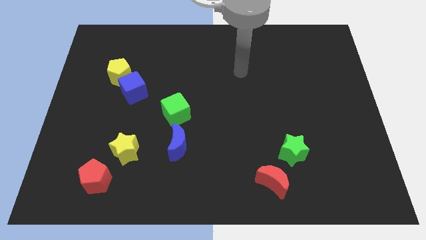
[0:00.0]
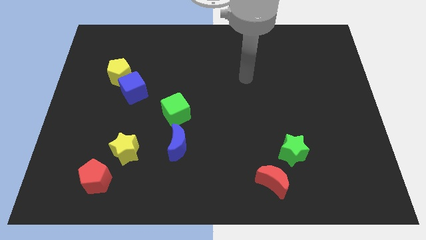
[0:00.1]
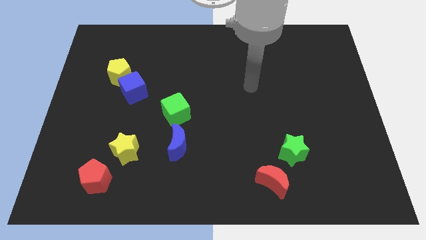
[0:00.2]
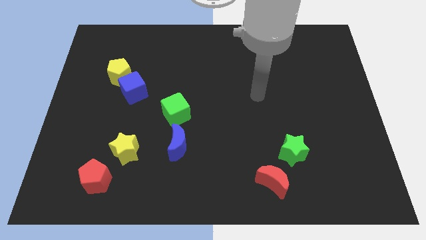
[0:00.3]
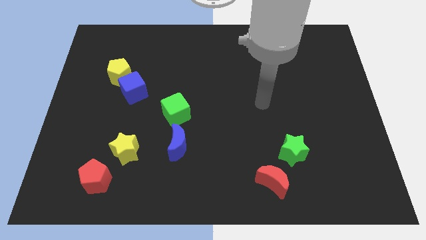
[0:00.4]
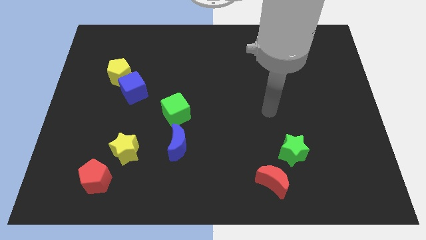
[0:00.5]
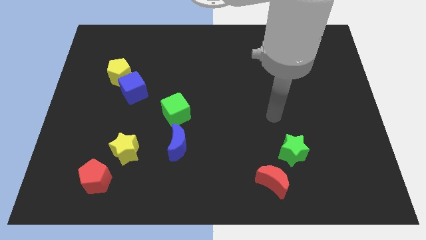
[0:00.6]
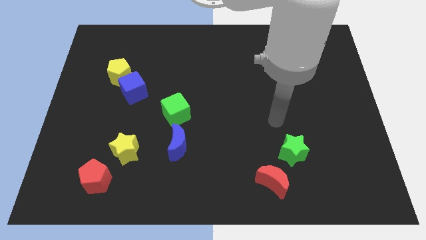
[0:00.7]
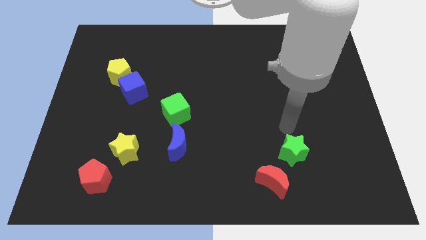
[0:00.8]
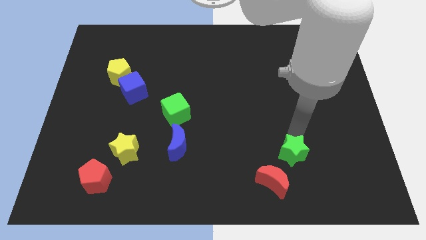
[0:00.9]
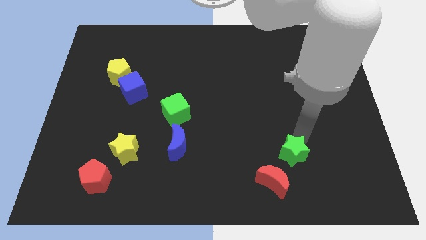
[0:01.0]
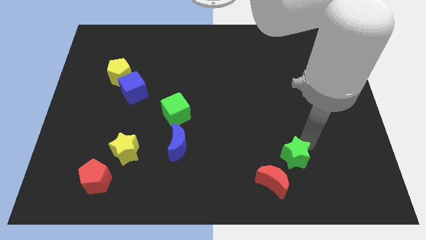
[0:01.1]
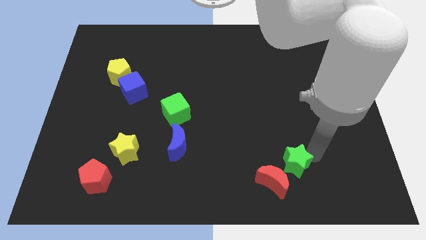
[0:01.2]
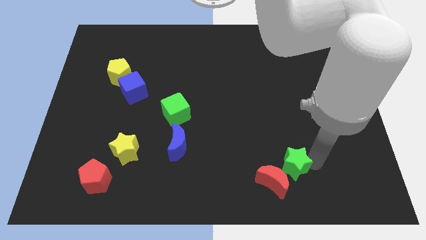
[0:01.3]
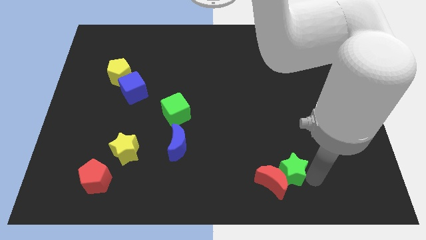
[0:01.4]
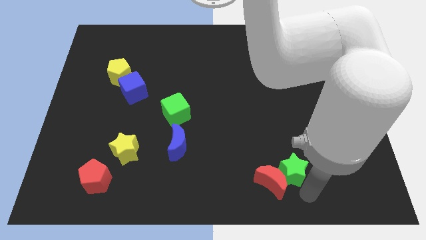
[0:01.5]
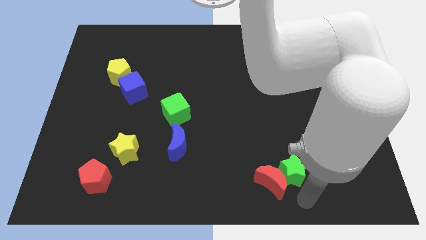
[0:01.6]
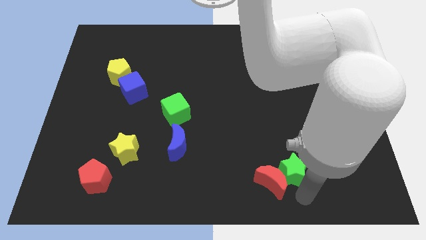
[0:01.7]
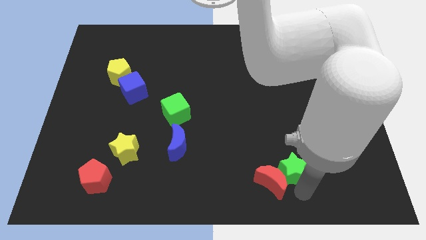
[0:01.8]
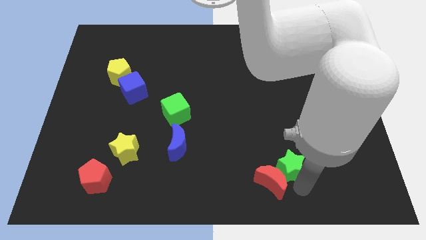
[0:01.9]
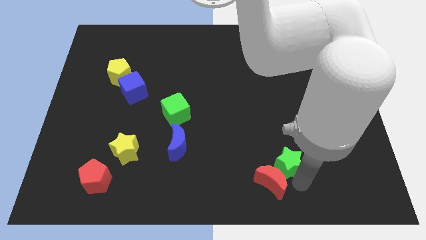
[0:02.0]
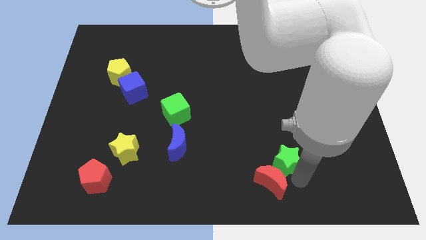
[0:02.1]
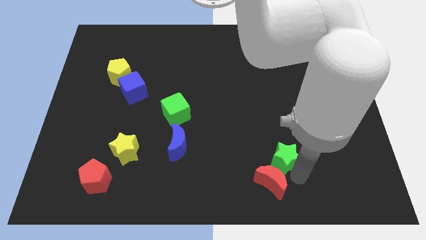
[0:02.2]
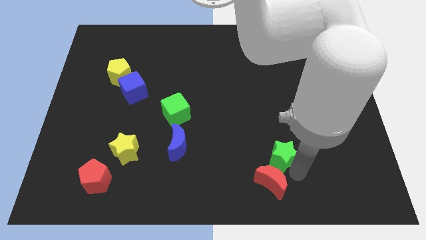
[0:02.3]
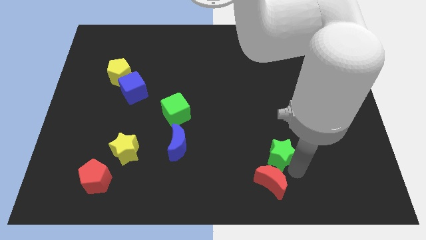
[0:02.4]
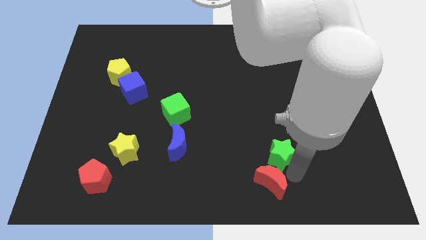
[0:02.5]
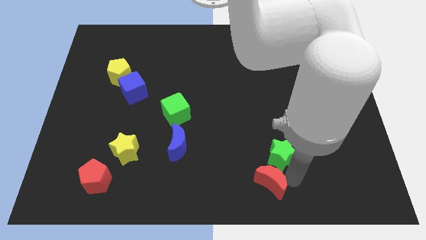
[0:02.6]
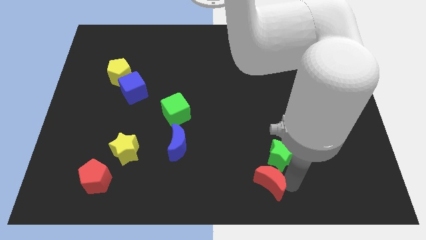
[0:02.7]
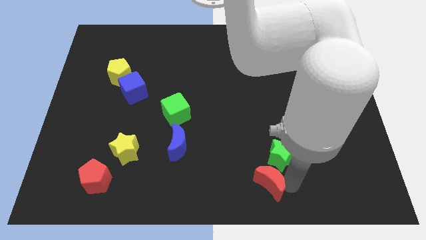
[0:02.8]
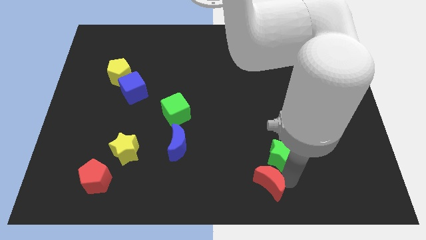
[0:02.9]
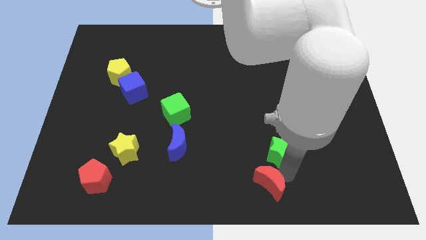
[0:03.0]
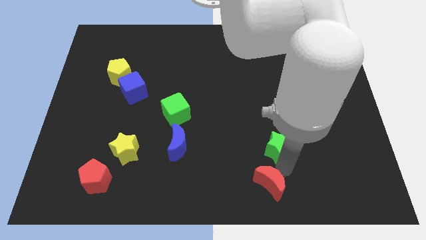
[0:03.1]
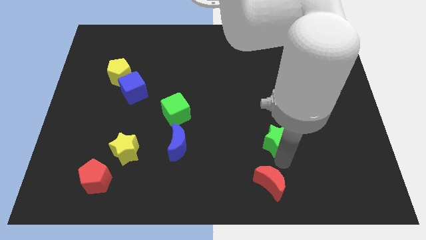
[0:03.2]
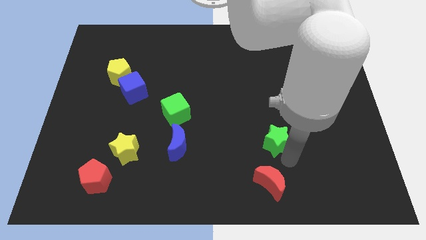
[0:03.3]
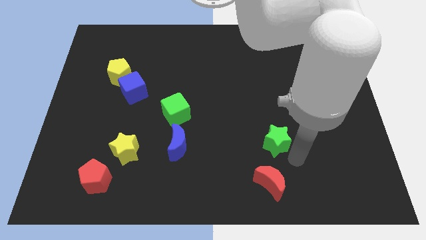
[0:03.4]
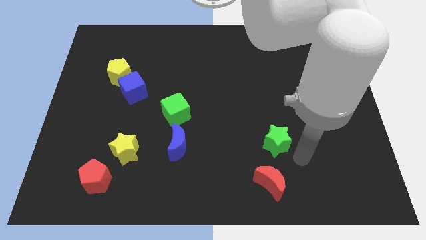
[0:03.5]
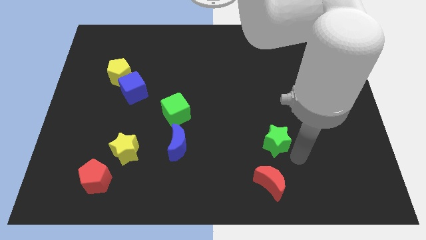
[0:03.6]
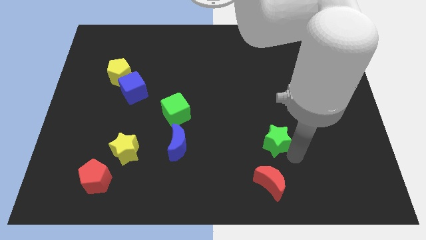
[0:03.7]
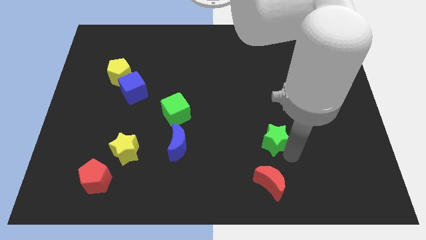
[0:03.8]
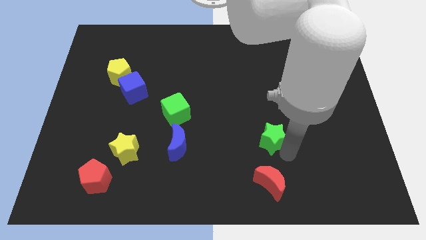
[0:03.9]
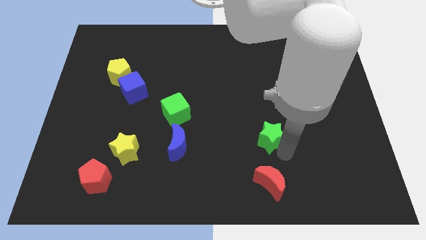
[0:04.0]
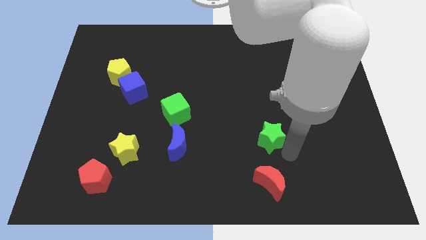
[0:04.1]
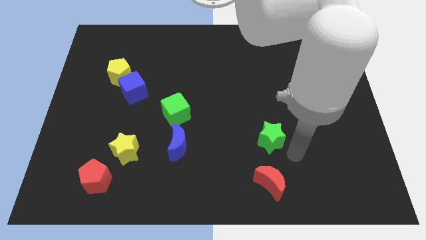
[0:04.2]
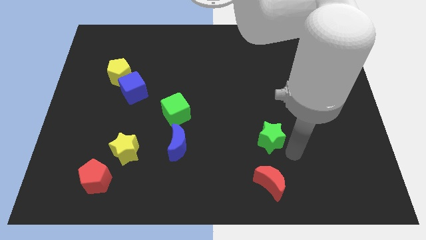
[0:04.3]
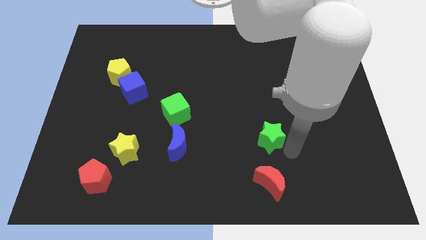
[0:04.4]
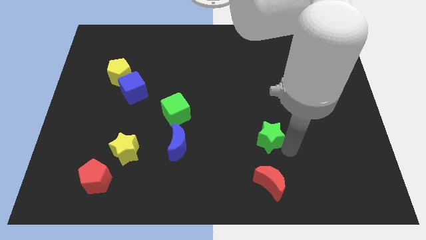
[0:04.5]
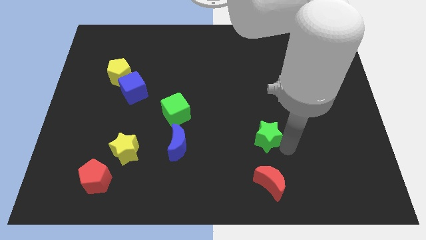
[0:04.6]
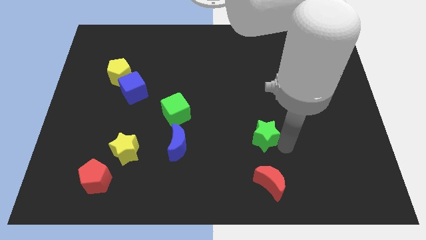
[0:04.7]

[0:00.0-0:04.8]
slide the green star a bit up and left

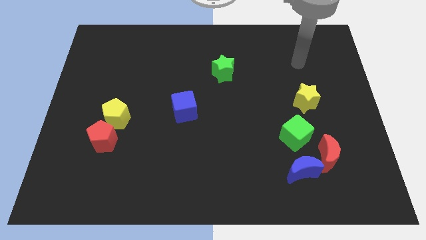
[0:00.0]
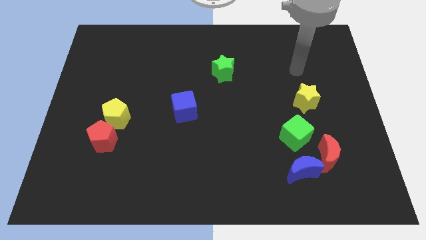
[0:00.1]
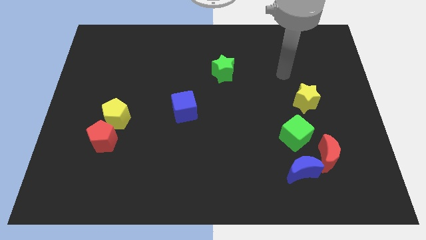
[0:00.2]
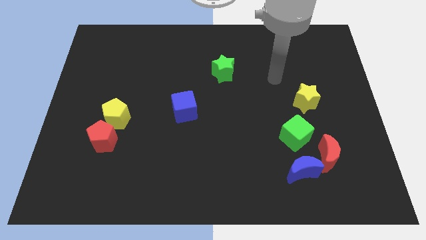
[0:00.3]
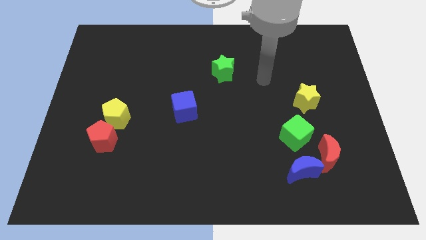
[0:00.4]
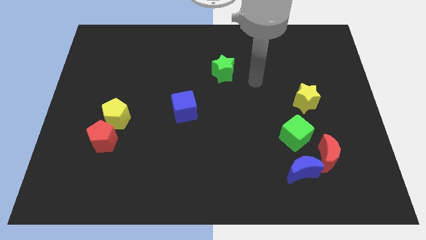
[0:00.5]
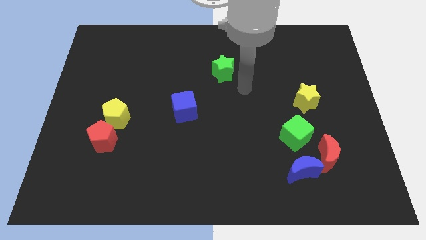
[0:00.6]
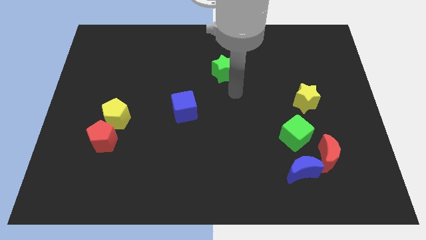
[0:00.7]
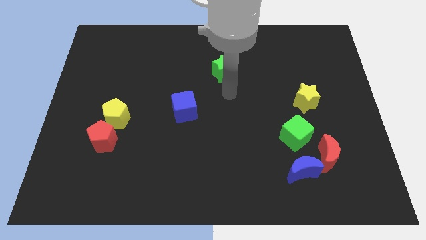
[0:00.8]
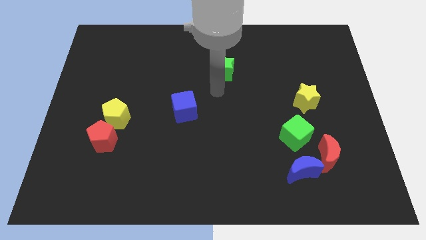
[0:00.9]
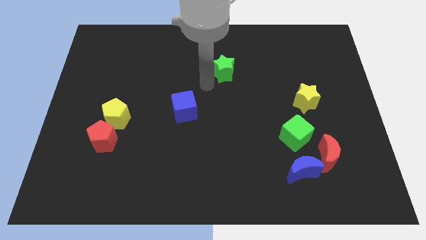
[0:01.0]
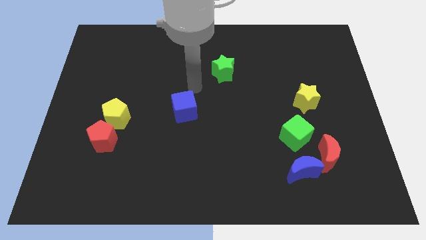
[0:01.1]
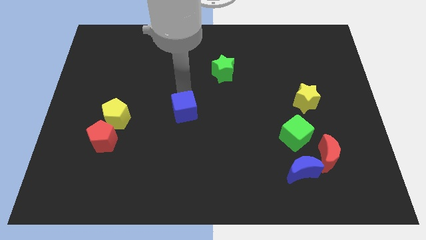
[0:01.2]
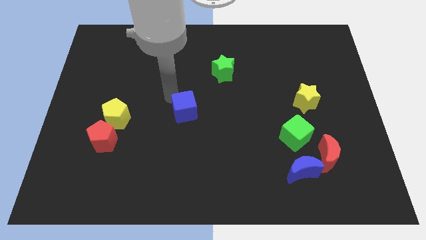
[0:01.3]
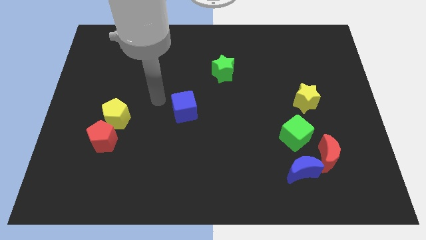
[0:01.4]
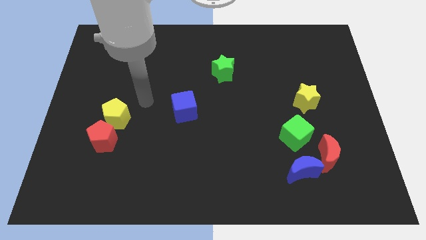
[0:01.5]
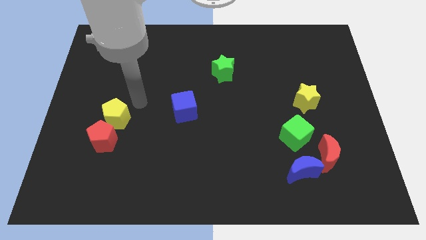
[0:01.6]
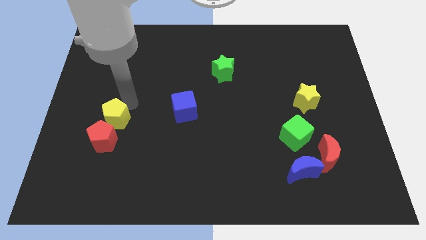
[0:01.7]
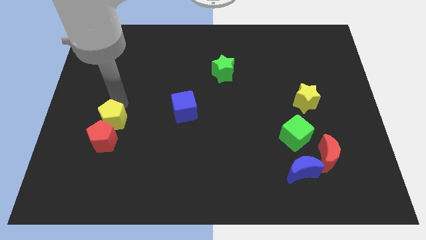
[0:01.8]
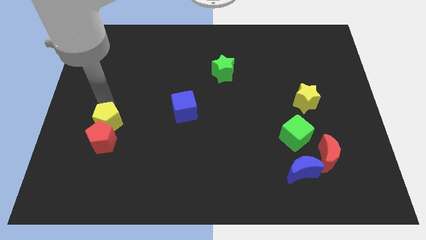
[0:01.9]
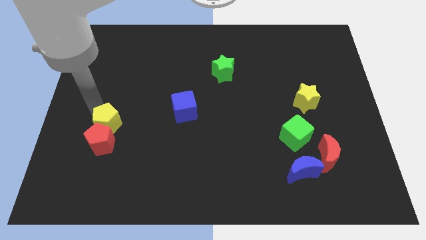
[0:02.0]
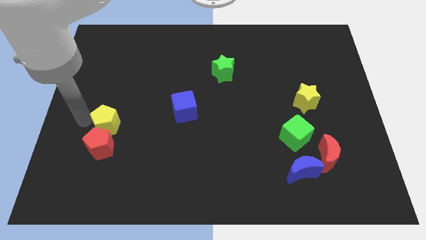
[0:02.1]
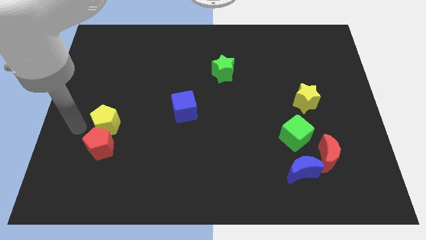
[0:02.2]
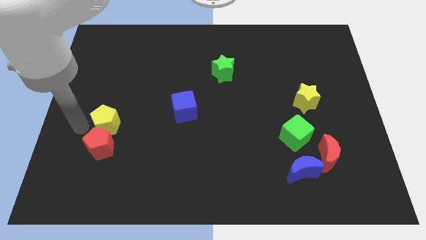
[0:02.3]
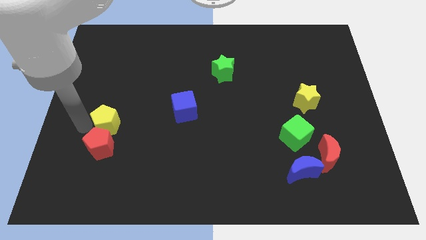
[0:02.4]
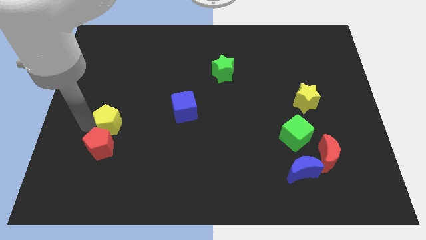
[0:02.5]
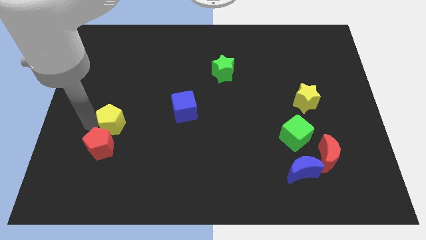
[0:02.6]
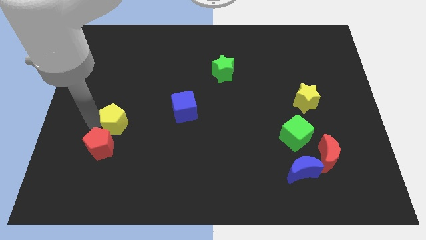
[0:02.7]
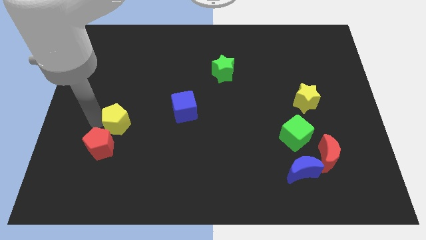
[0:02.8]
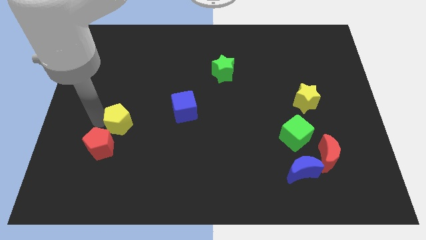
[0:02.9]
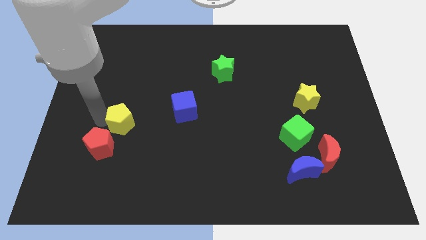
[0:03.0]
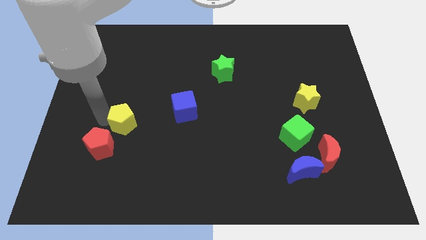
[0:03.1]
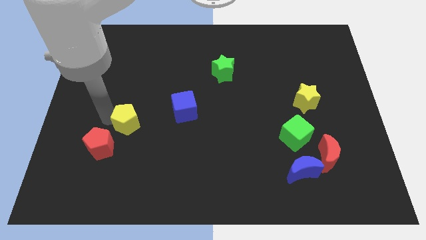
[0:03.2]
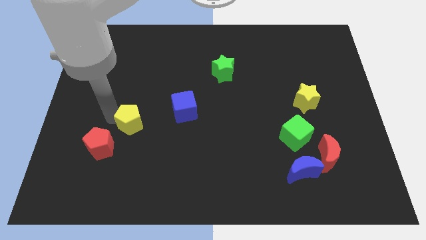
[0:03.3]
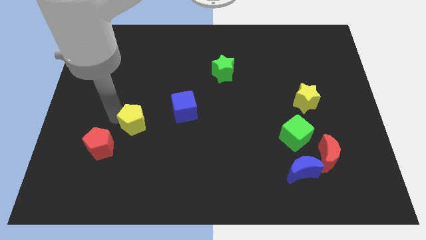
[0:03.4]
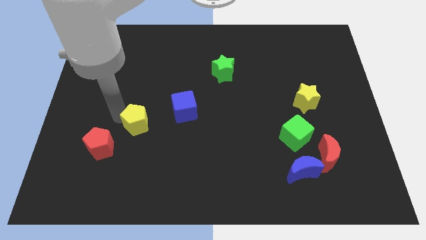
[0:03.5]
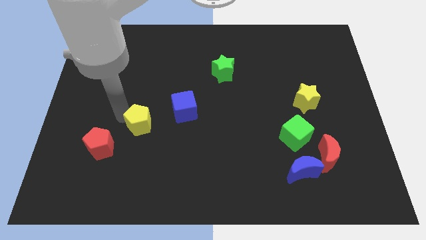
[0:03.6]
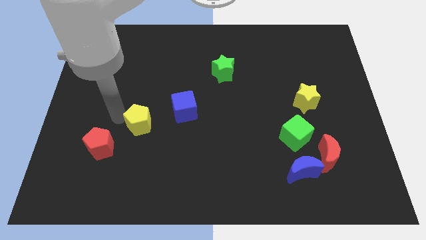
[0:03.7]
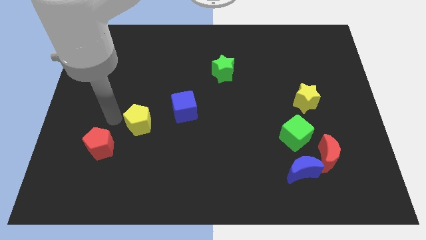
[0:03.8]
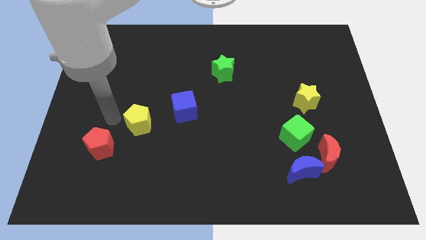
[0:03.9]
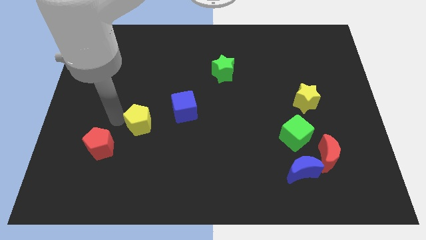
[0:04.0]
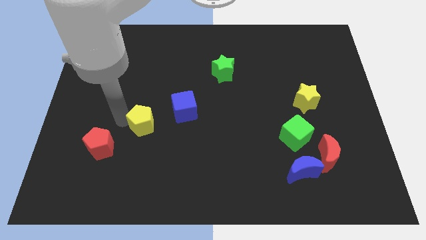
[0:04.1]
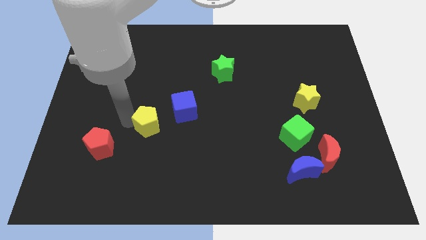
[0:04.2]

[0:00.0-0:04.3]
slide the yellow pentagon a little bit right
